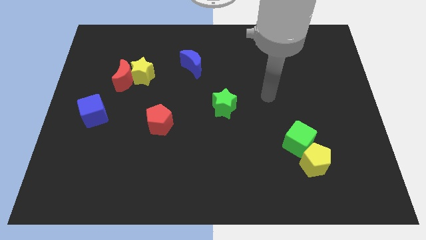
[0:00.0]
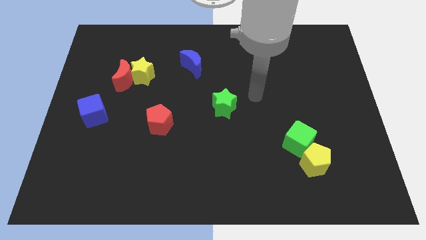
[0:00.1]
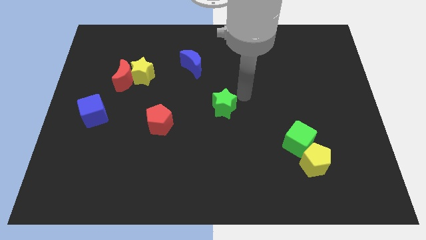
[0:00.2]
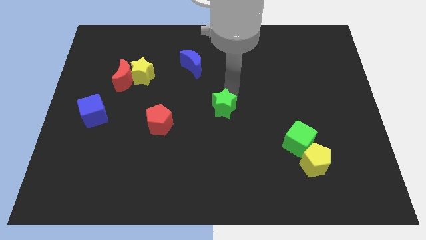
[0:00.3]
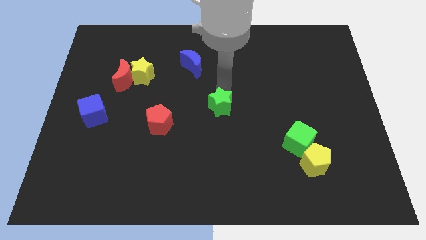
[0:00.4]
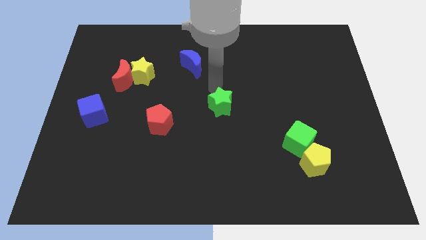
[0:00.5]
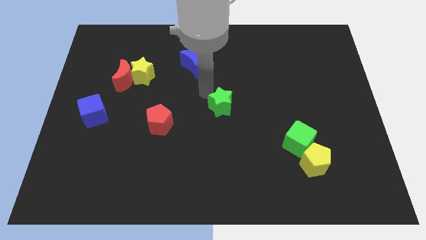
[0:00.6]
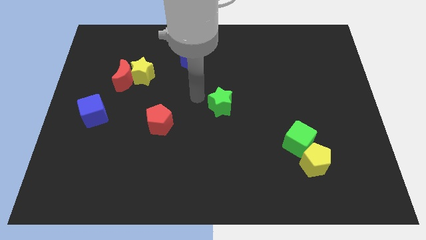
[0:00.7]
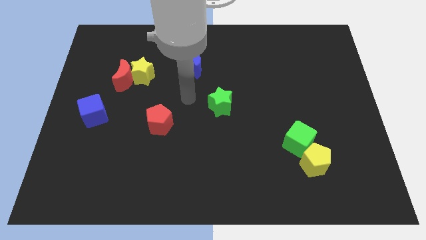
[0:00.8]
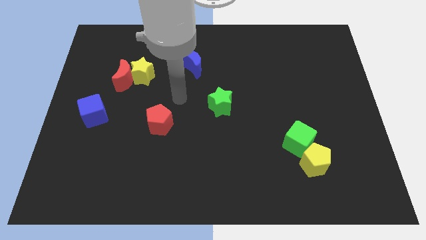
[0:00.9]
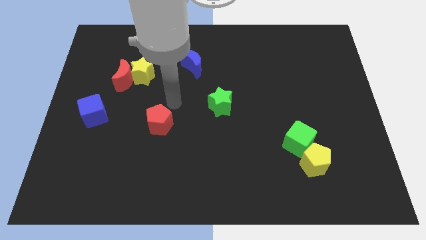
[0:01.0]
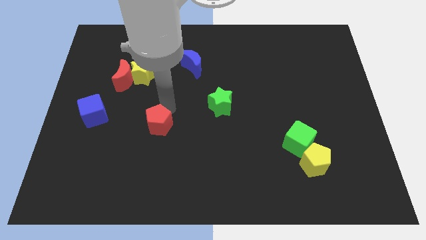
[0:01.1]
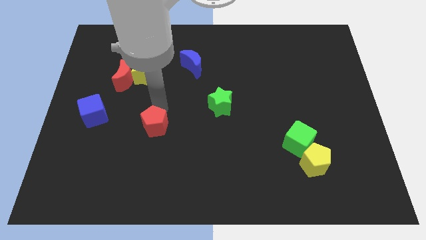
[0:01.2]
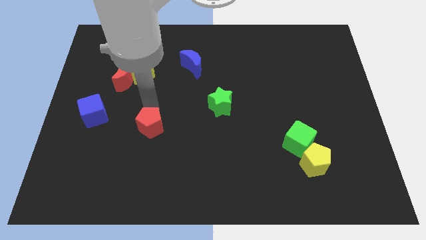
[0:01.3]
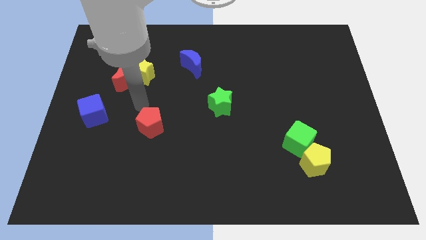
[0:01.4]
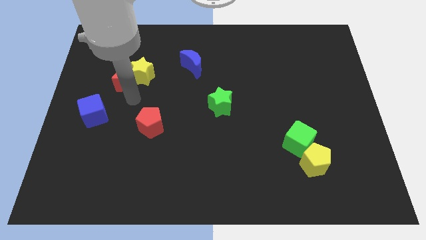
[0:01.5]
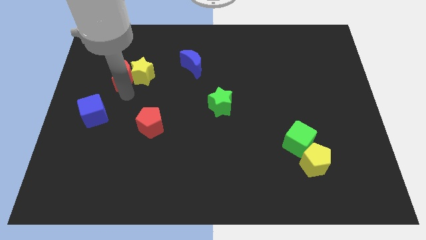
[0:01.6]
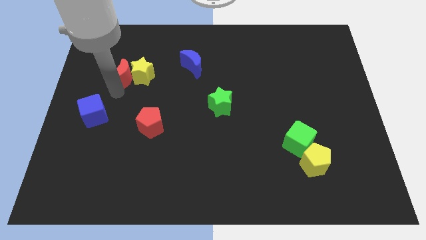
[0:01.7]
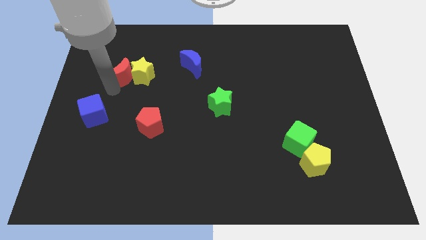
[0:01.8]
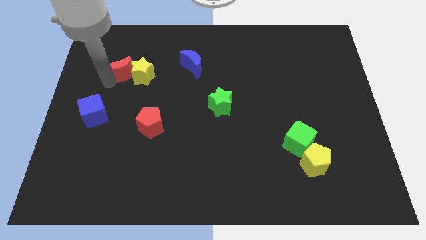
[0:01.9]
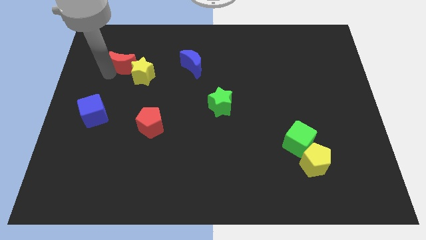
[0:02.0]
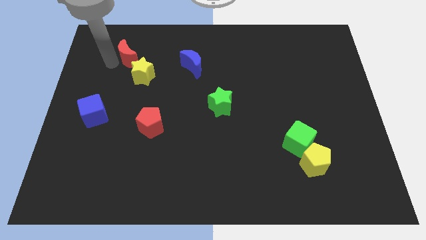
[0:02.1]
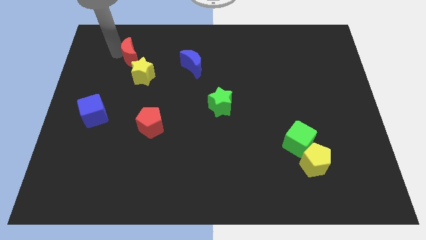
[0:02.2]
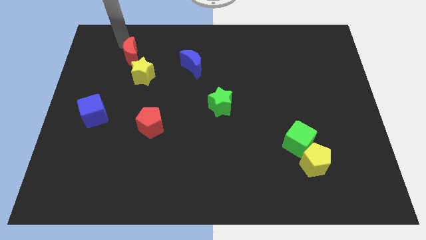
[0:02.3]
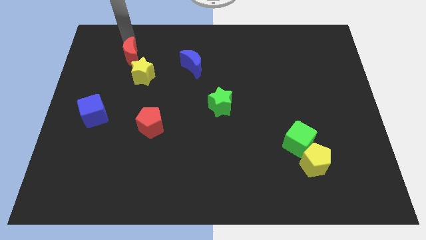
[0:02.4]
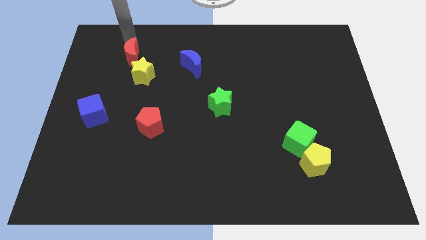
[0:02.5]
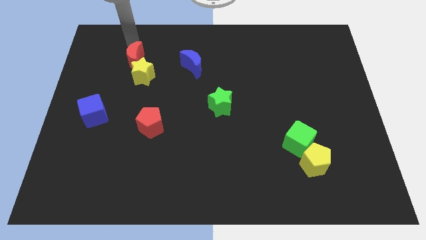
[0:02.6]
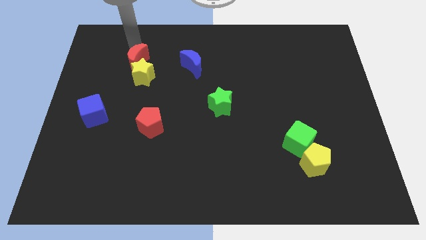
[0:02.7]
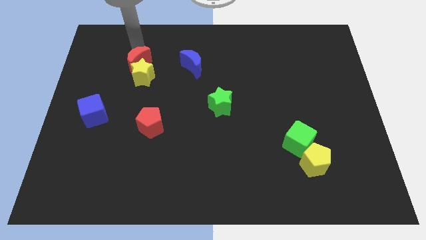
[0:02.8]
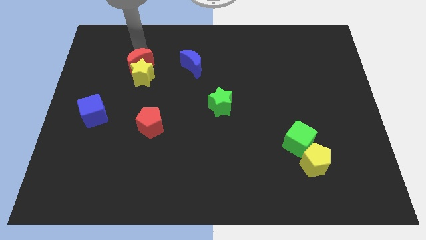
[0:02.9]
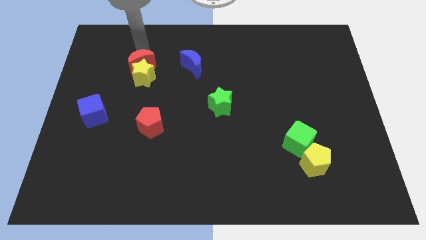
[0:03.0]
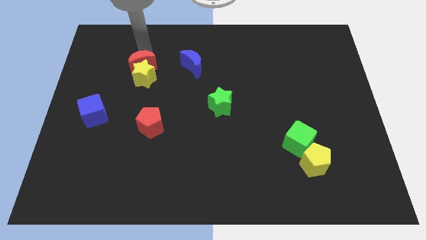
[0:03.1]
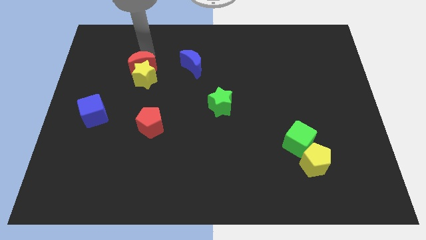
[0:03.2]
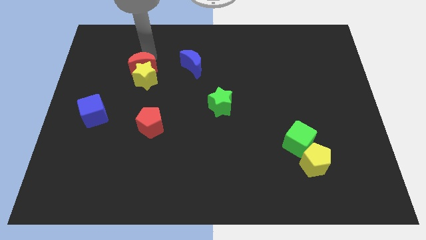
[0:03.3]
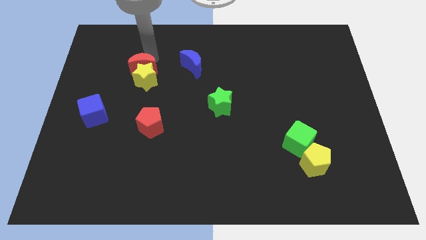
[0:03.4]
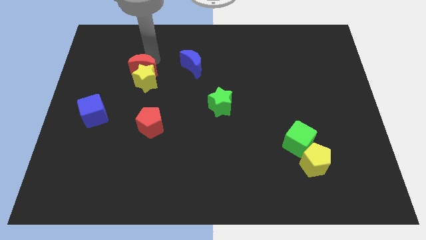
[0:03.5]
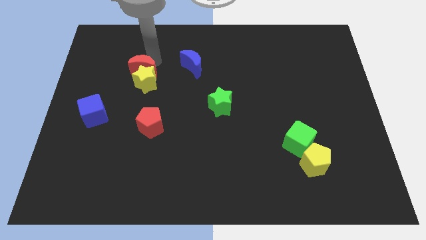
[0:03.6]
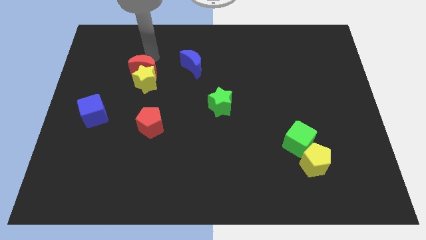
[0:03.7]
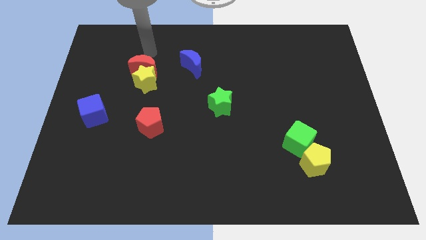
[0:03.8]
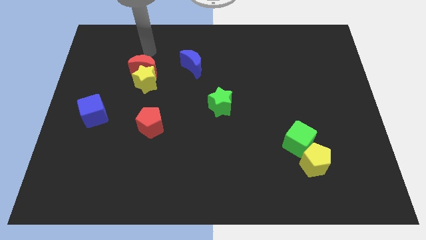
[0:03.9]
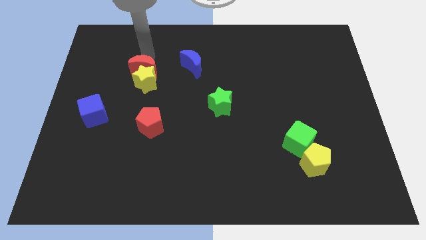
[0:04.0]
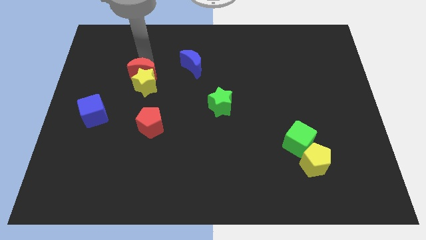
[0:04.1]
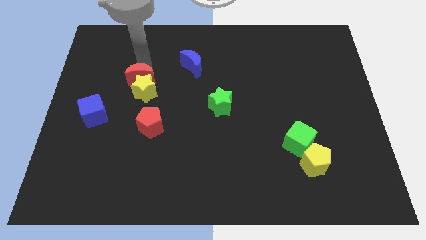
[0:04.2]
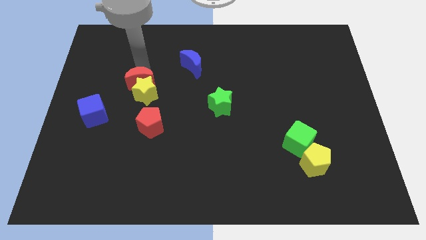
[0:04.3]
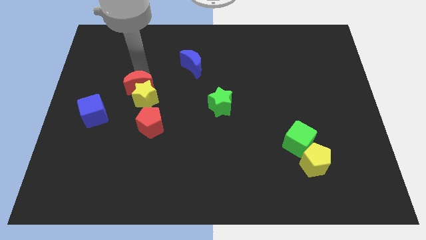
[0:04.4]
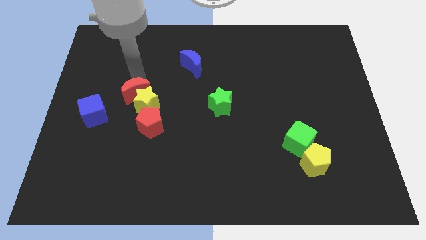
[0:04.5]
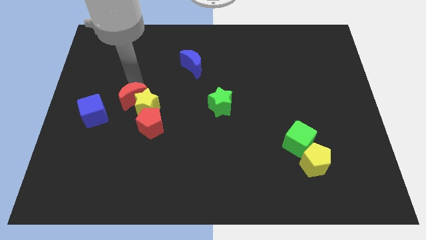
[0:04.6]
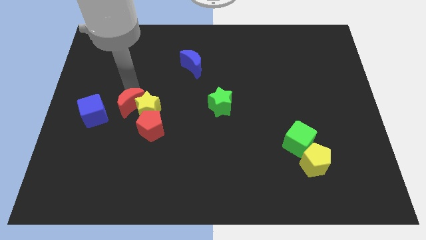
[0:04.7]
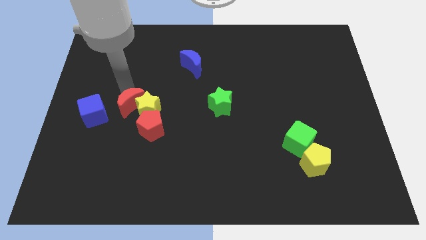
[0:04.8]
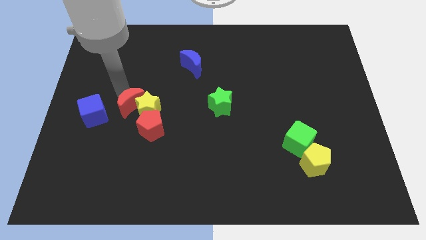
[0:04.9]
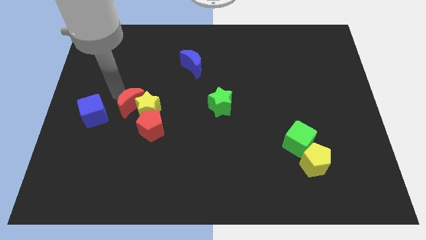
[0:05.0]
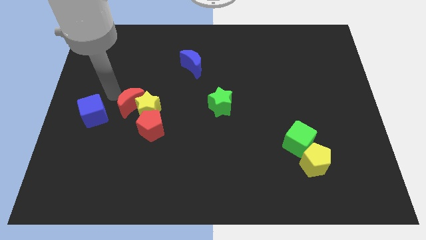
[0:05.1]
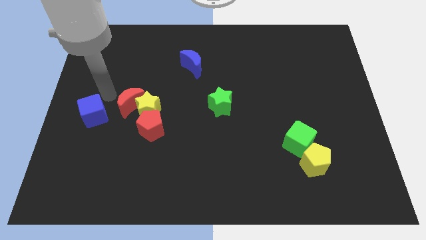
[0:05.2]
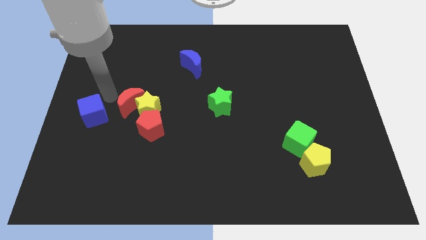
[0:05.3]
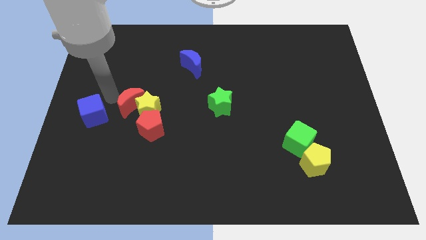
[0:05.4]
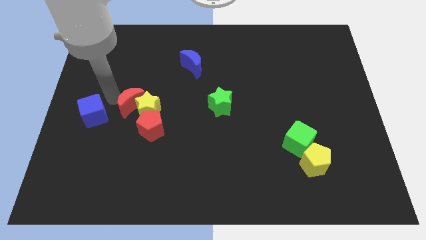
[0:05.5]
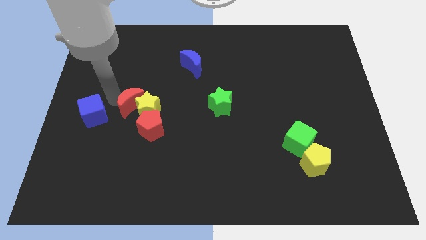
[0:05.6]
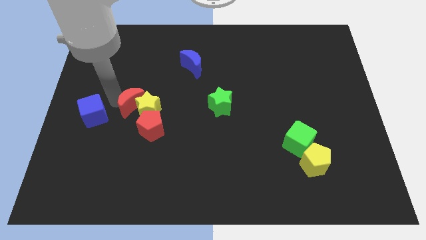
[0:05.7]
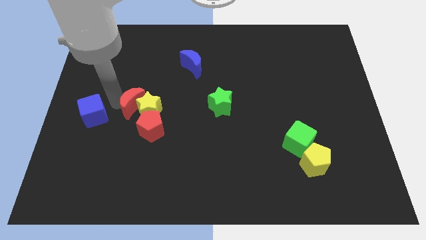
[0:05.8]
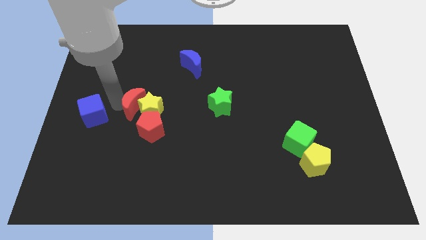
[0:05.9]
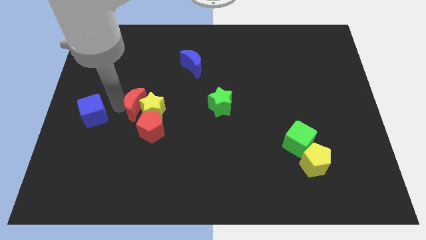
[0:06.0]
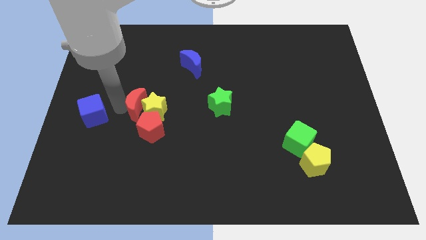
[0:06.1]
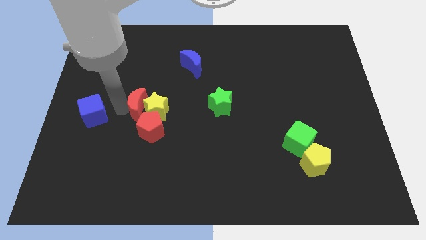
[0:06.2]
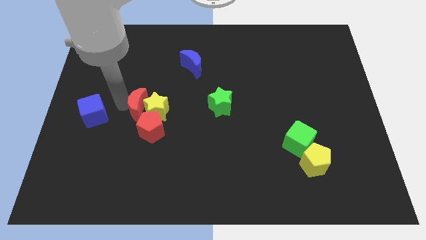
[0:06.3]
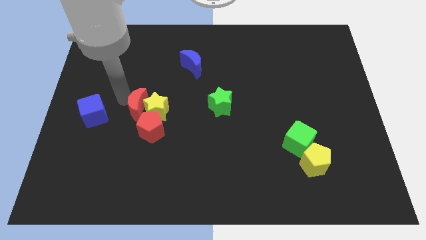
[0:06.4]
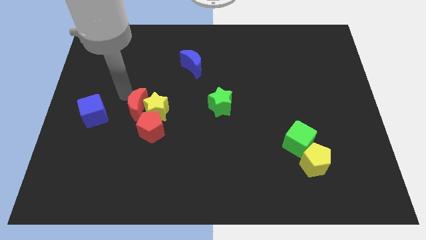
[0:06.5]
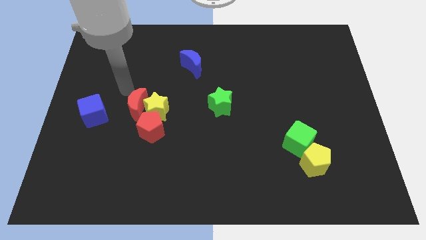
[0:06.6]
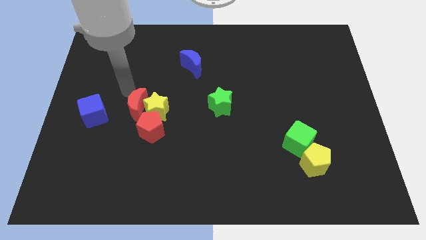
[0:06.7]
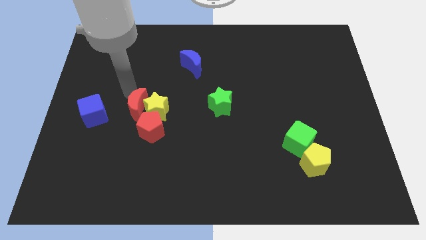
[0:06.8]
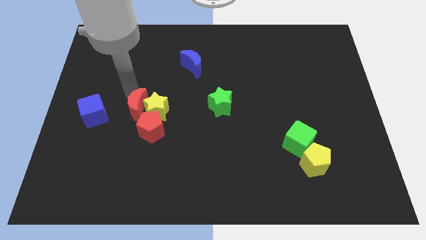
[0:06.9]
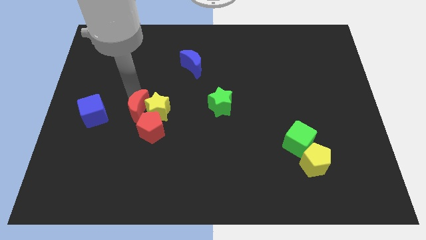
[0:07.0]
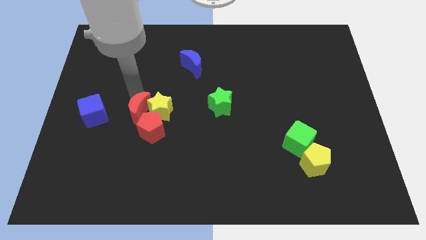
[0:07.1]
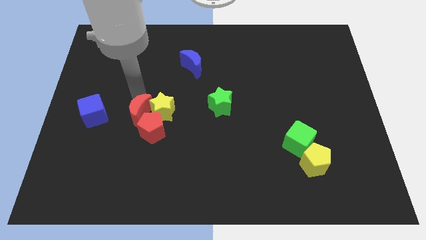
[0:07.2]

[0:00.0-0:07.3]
put the red moon close to the red pentagon
